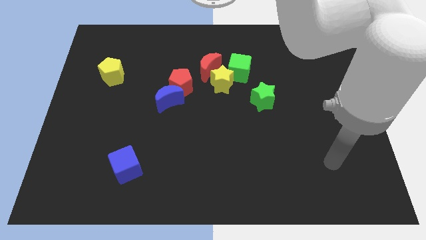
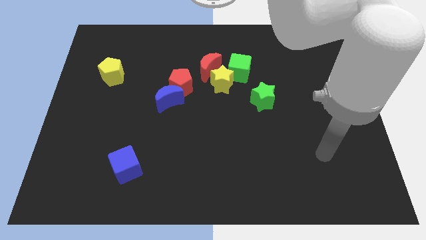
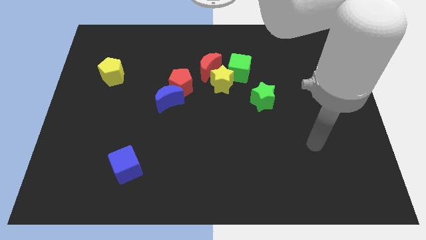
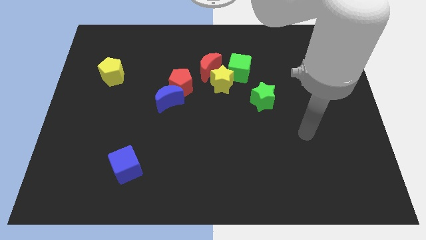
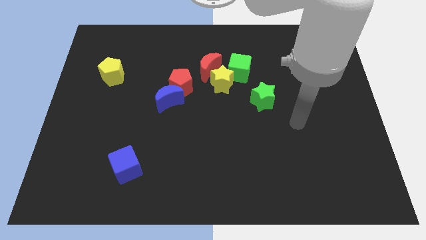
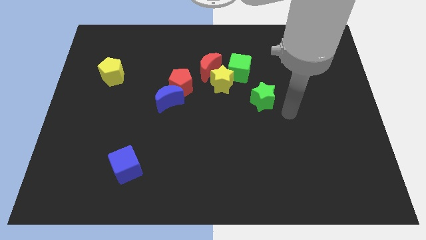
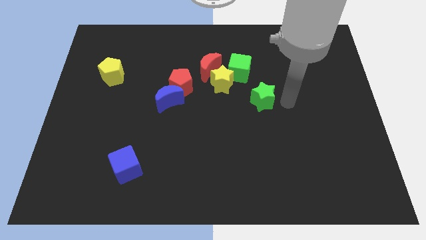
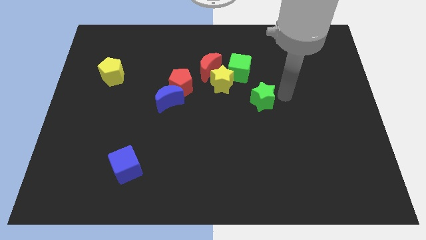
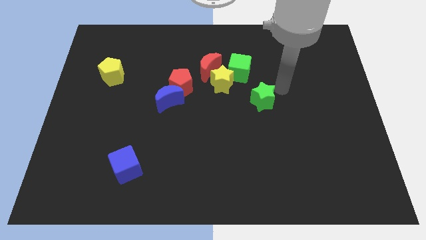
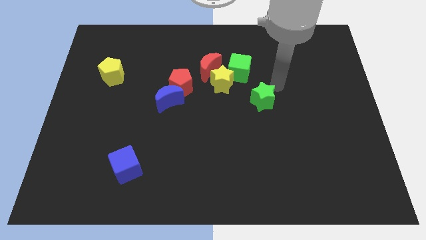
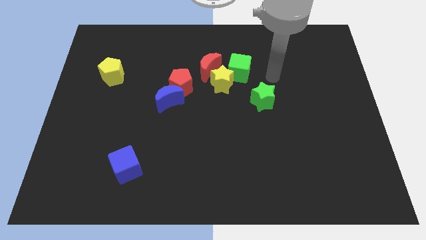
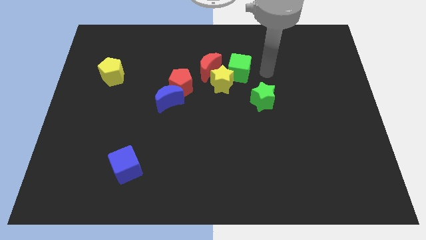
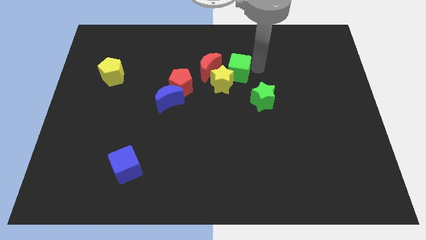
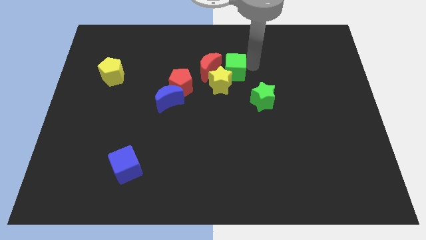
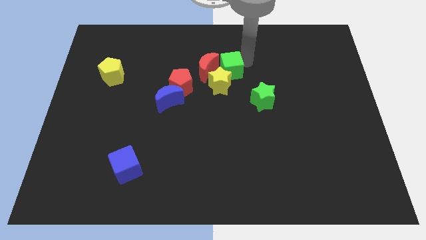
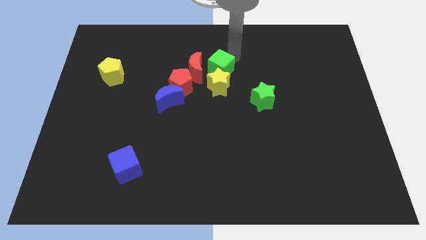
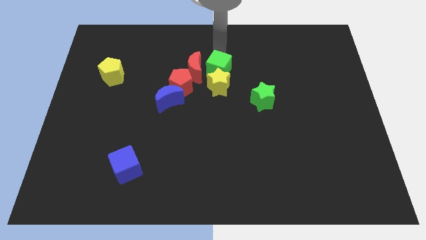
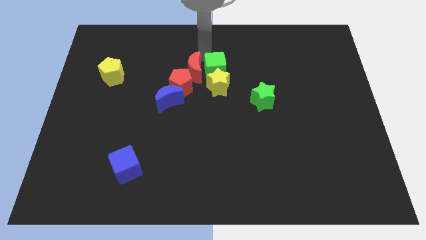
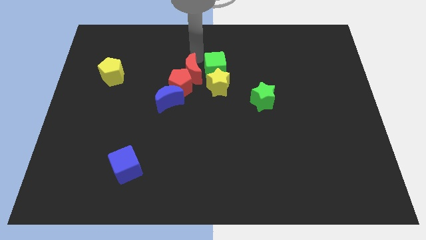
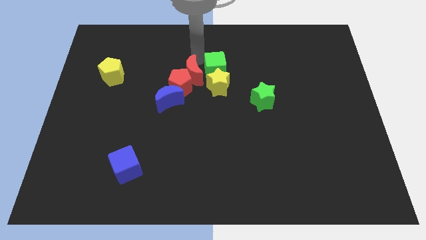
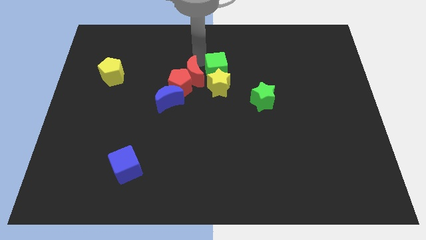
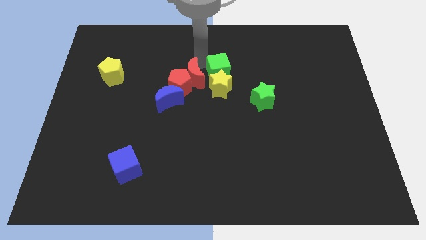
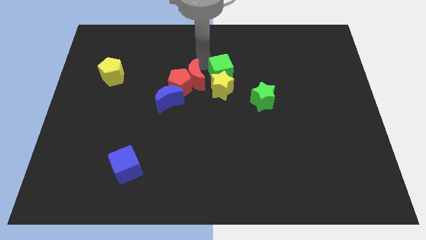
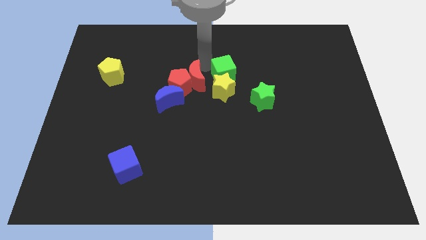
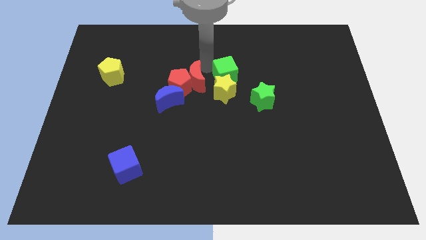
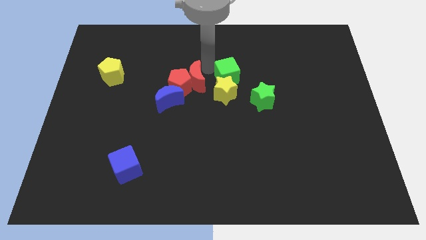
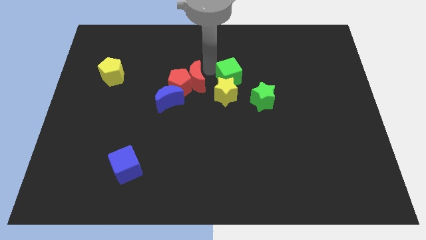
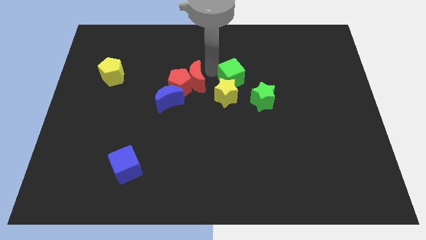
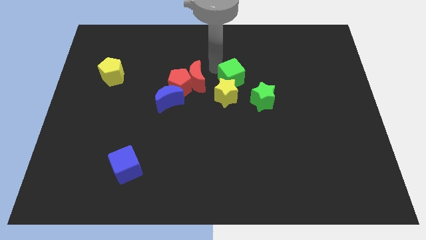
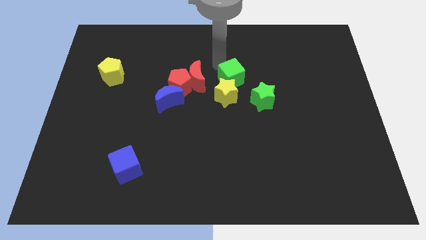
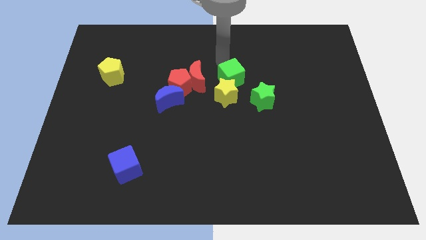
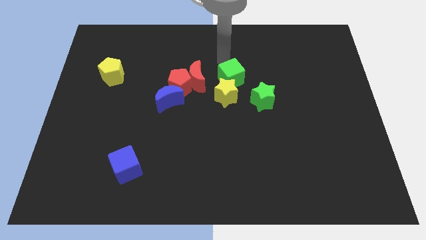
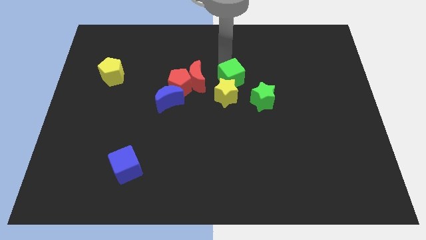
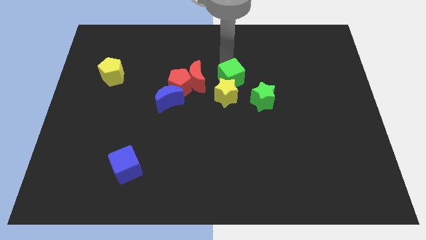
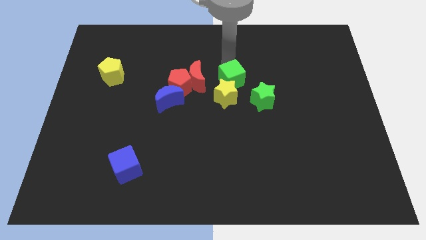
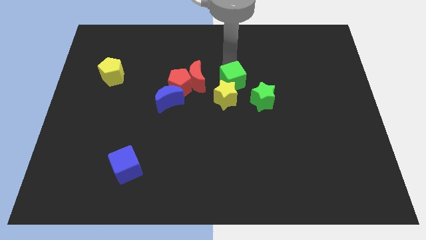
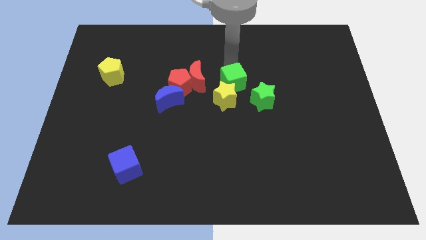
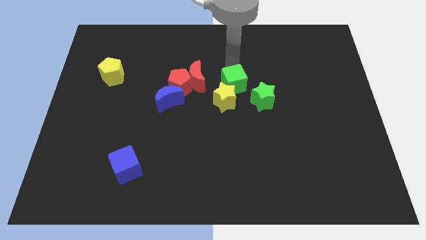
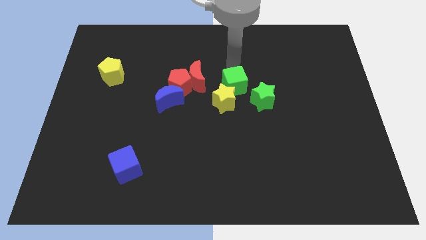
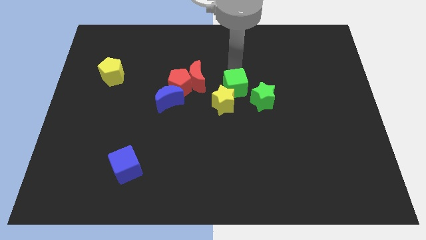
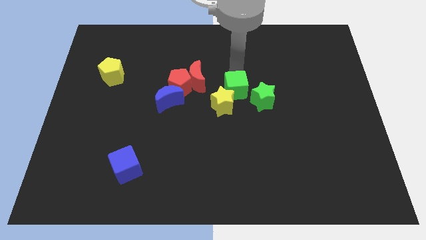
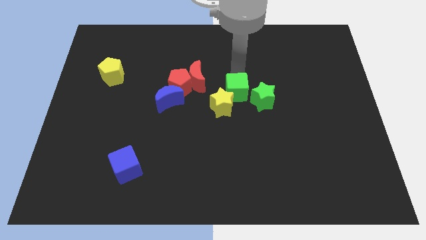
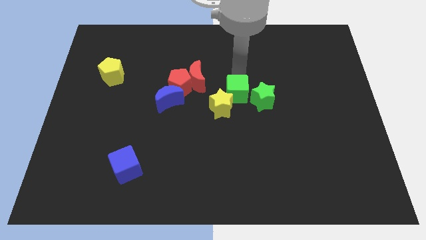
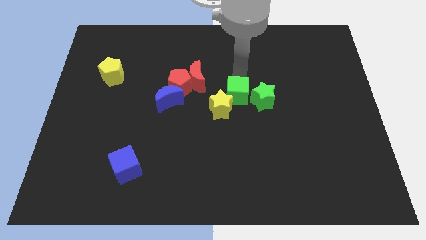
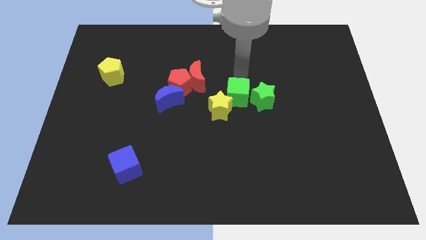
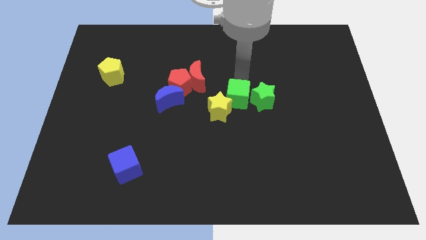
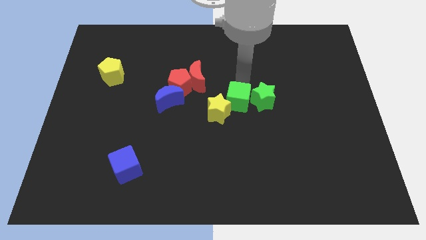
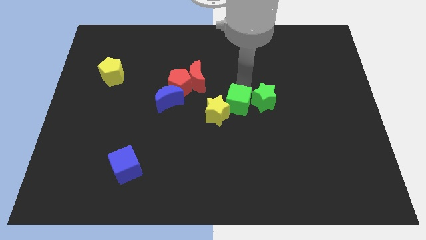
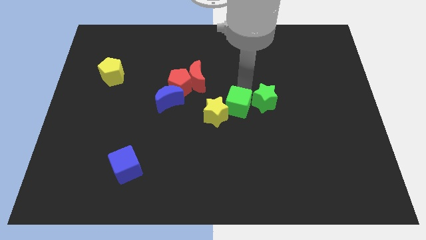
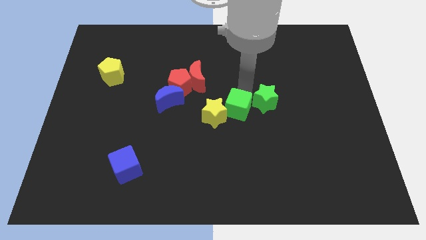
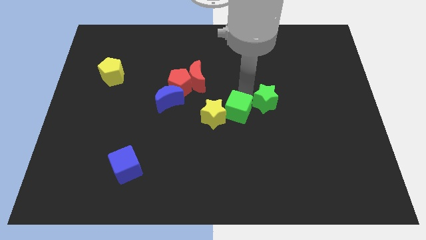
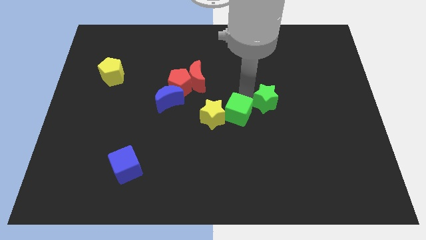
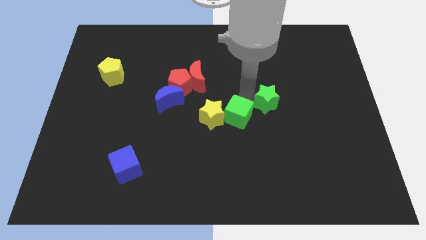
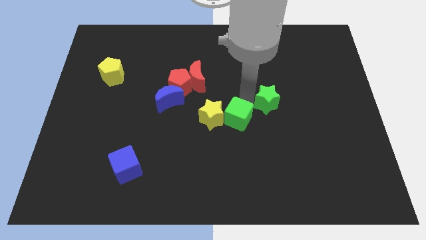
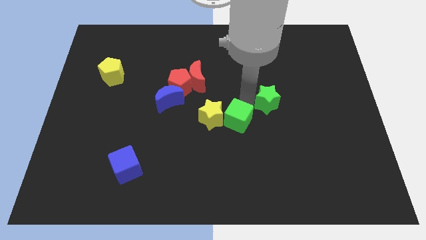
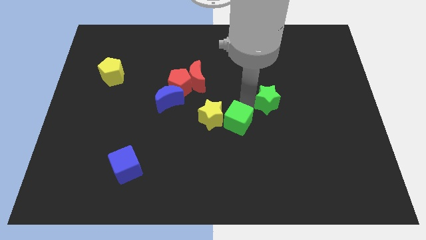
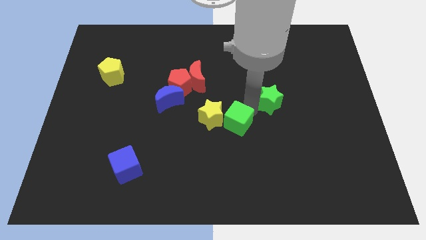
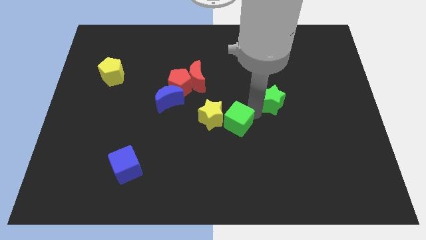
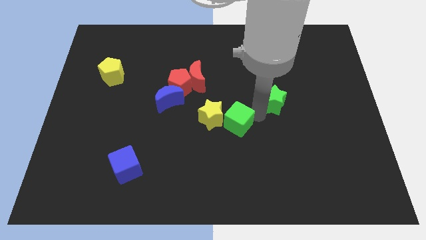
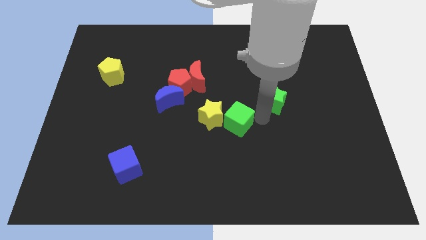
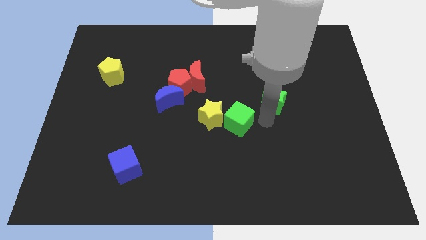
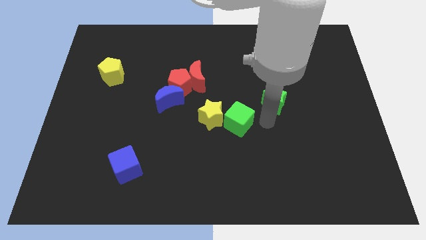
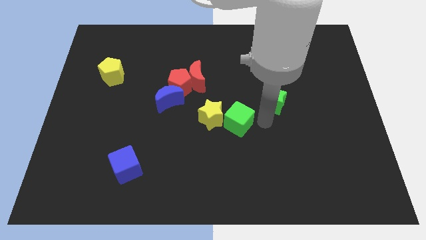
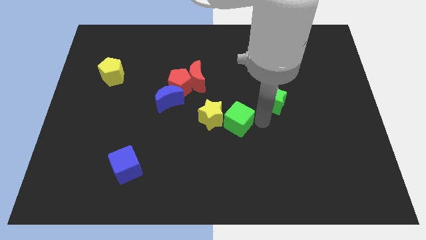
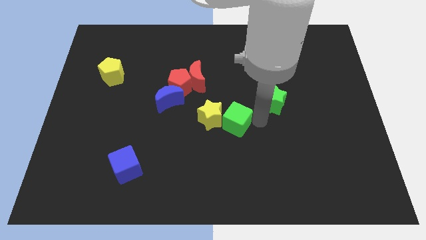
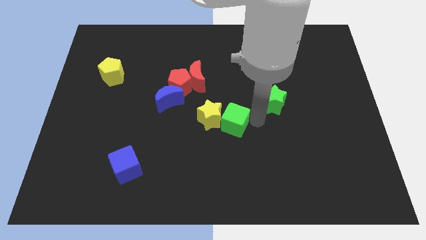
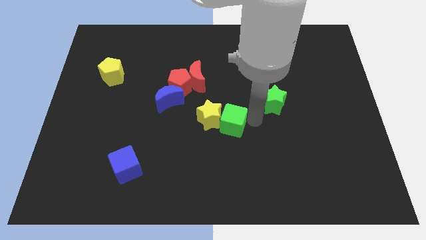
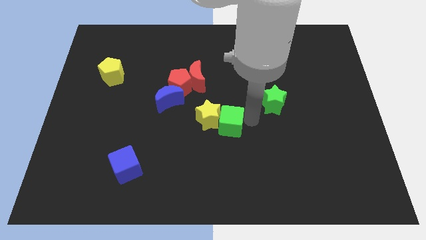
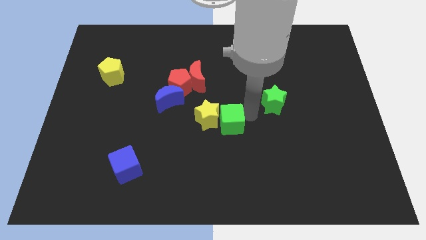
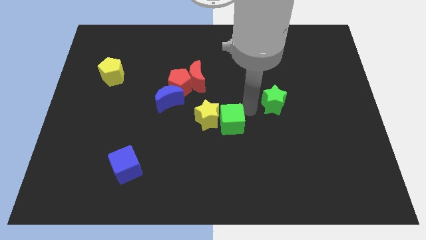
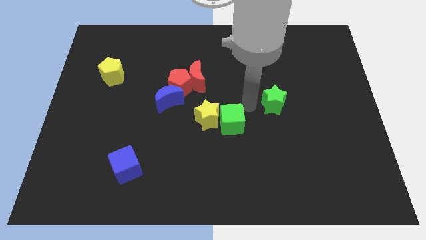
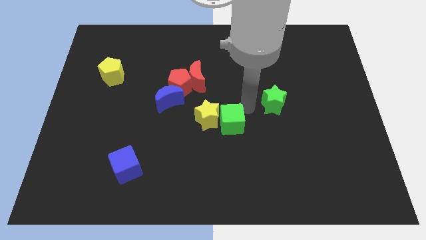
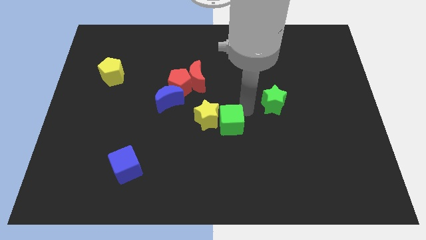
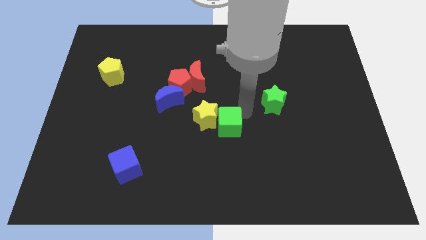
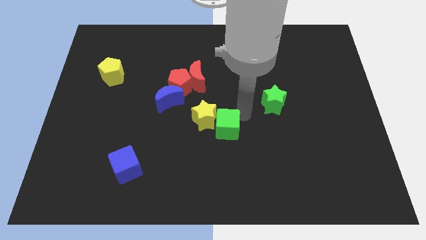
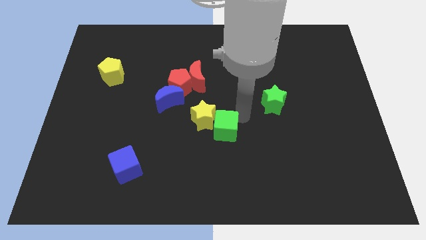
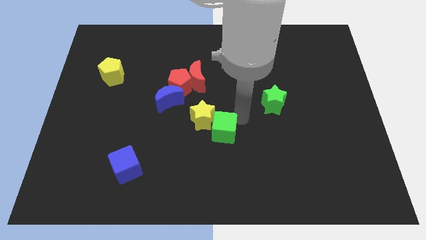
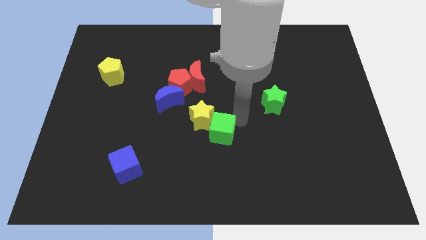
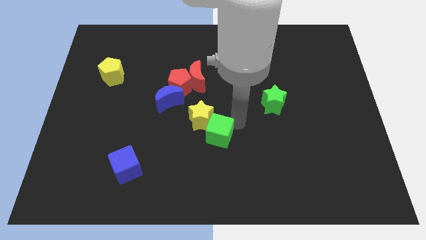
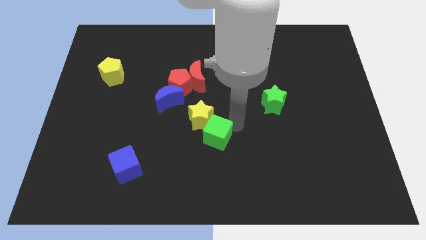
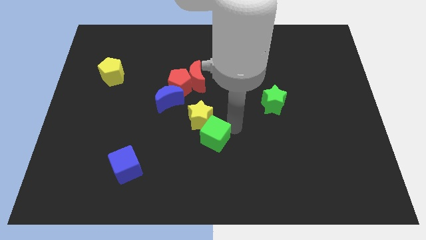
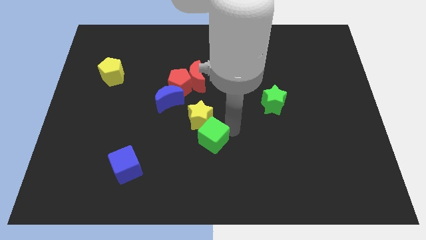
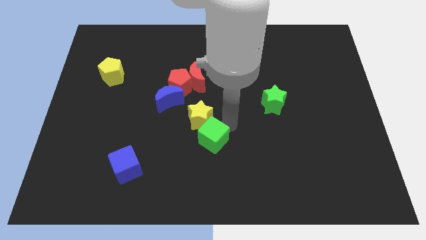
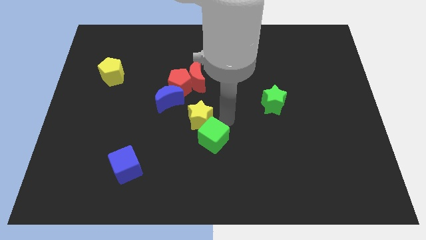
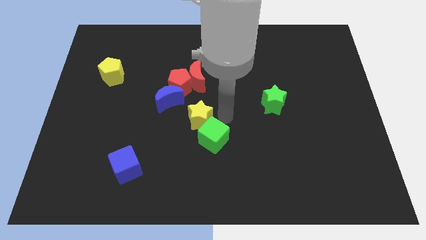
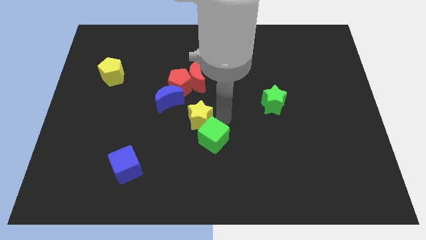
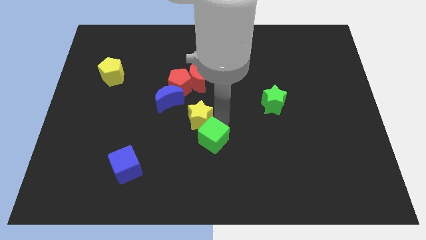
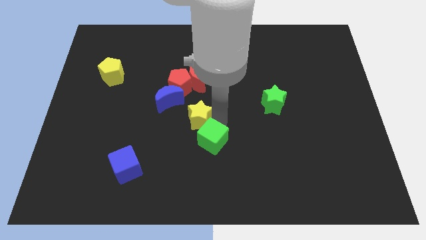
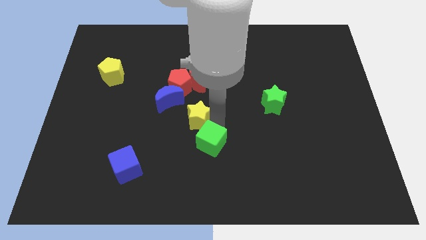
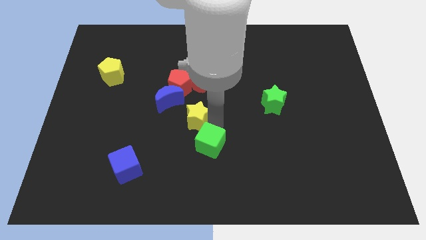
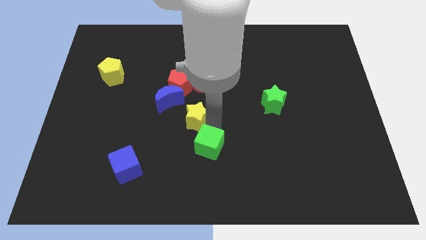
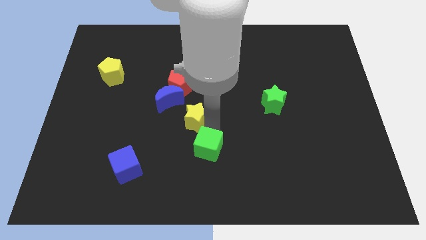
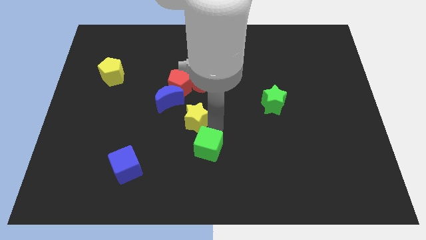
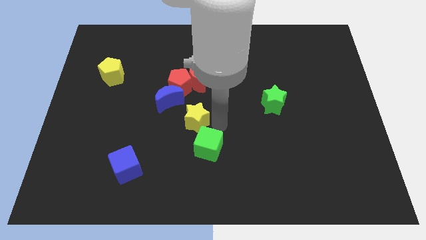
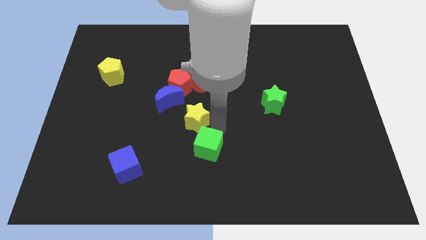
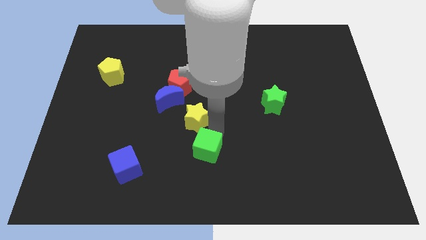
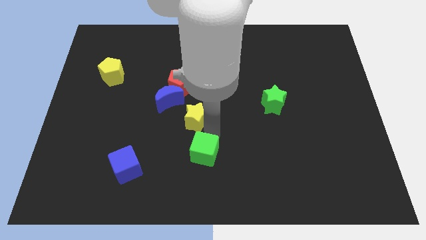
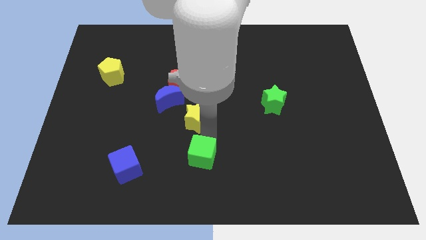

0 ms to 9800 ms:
put the green cube to the bottom side
